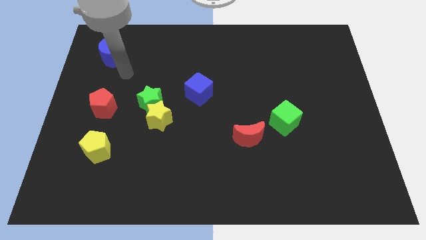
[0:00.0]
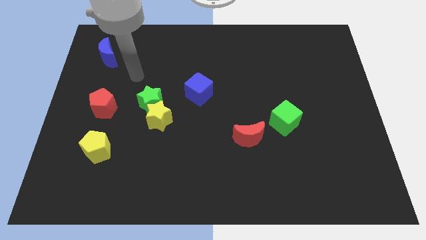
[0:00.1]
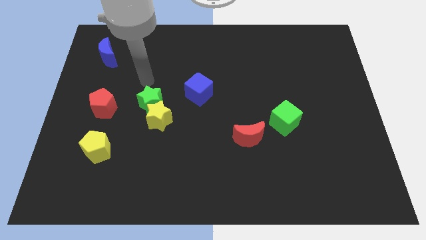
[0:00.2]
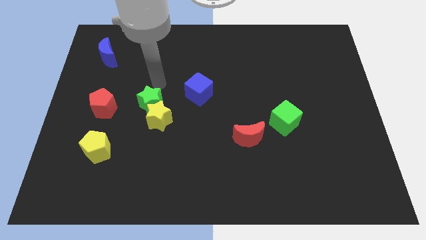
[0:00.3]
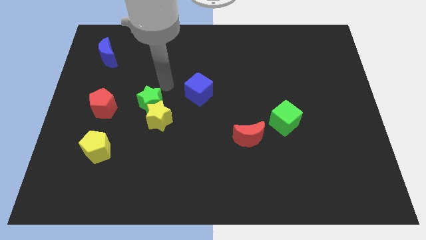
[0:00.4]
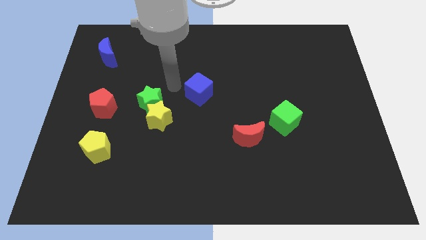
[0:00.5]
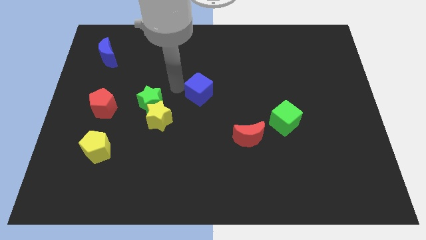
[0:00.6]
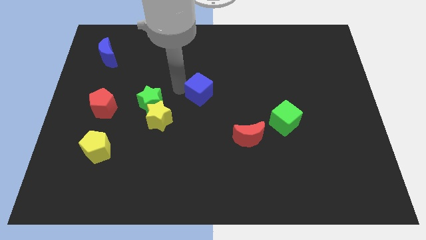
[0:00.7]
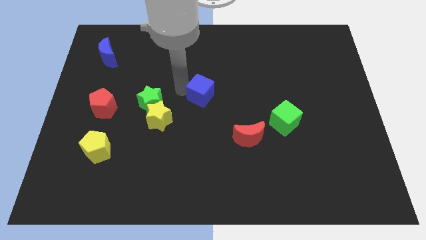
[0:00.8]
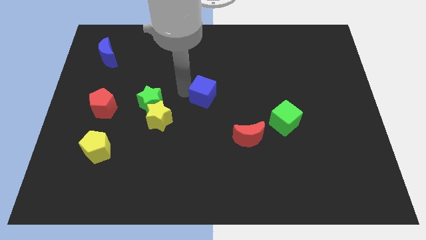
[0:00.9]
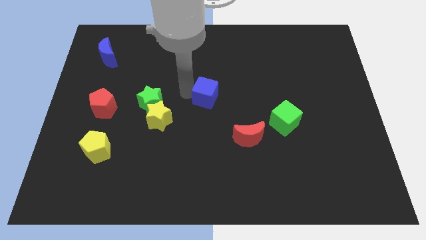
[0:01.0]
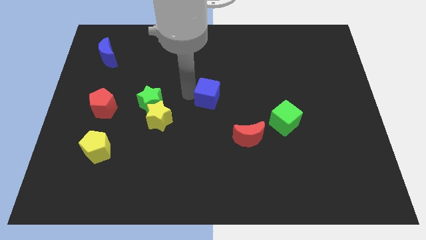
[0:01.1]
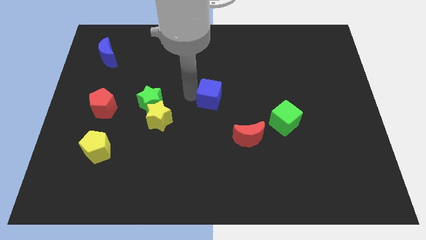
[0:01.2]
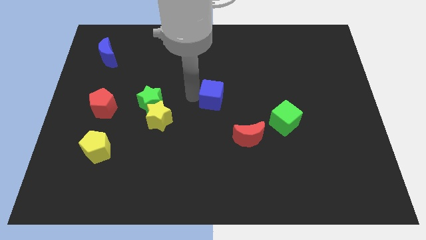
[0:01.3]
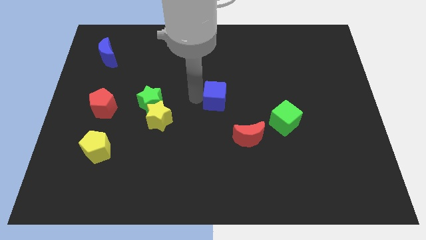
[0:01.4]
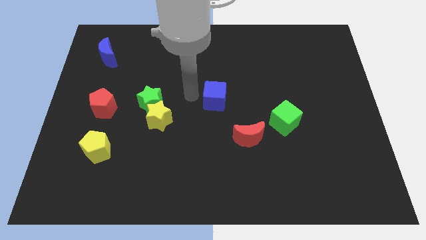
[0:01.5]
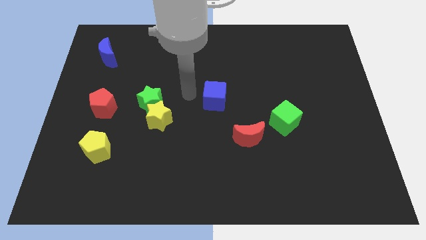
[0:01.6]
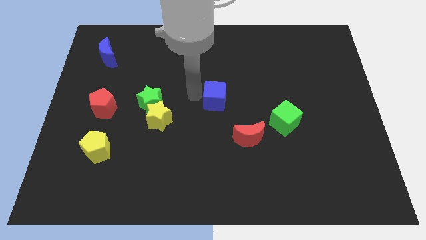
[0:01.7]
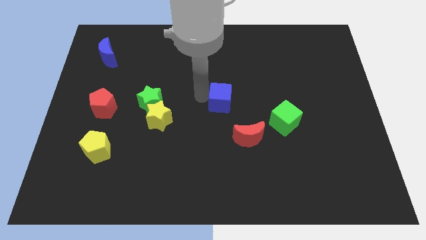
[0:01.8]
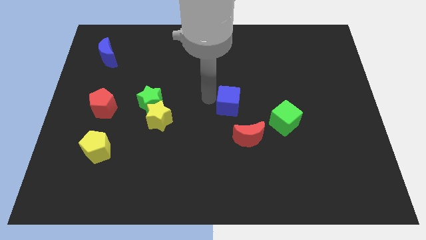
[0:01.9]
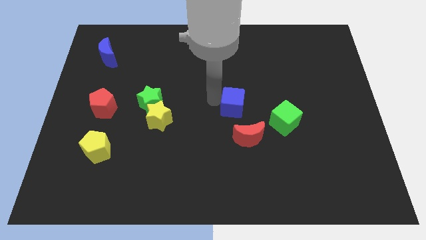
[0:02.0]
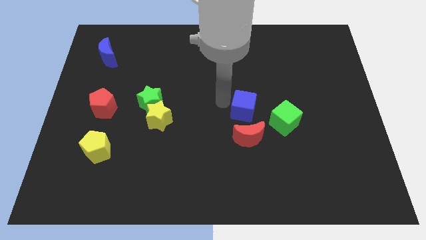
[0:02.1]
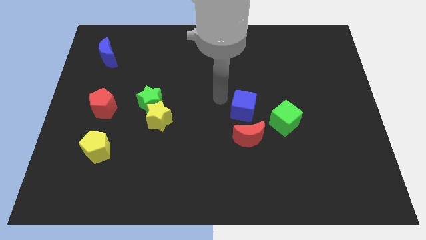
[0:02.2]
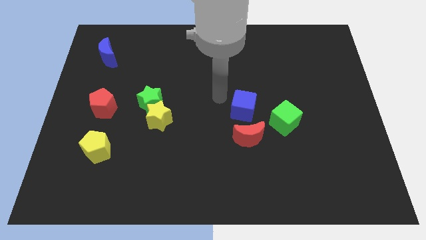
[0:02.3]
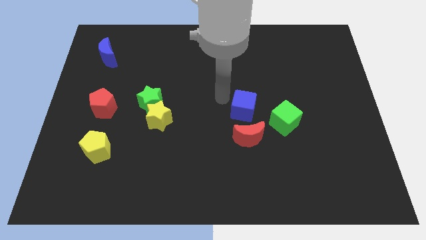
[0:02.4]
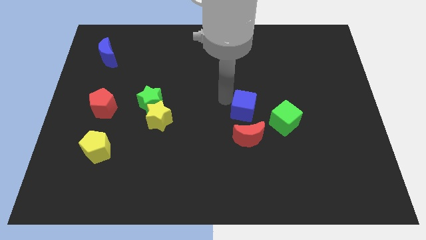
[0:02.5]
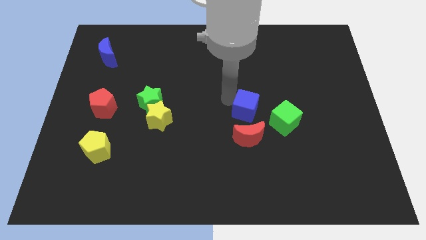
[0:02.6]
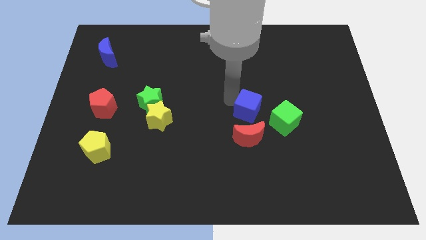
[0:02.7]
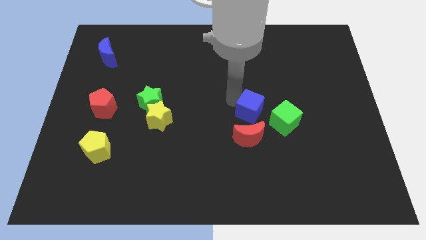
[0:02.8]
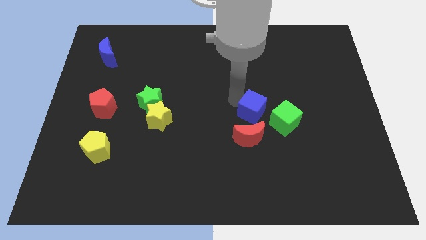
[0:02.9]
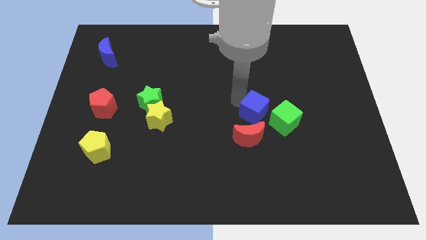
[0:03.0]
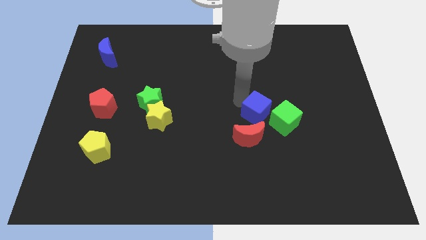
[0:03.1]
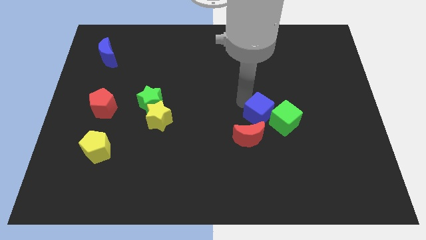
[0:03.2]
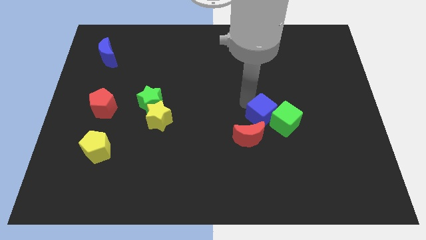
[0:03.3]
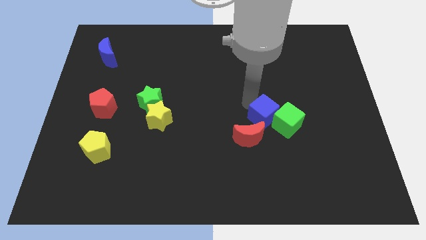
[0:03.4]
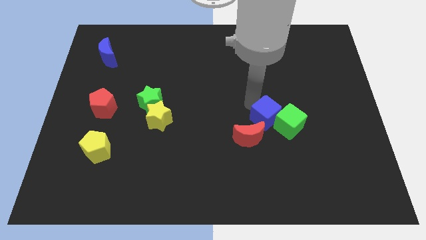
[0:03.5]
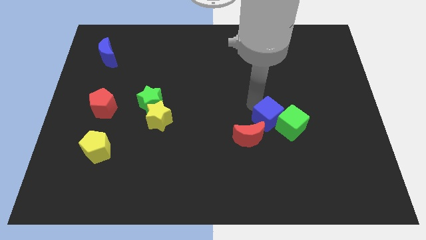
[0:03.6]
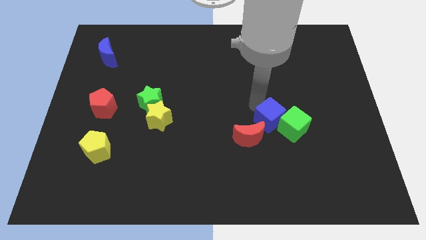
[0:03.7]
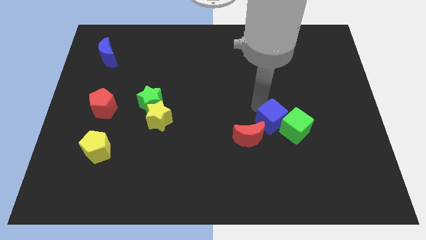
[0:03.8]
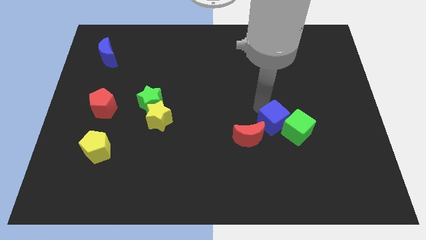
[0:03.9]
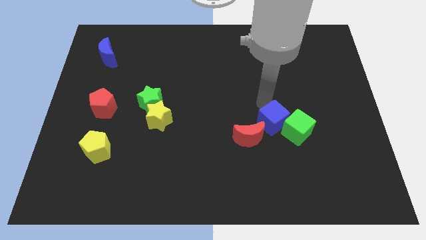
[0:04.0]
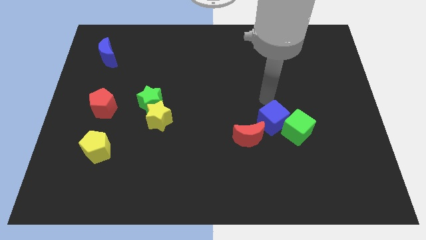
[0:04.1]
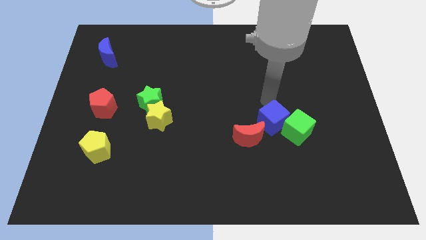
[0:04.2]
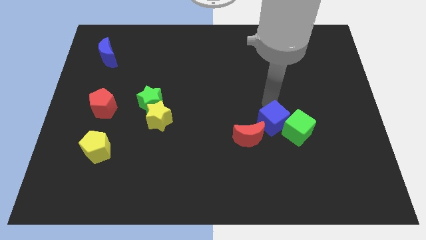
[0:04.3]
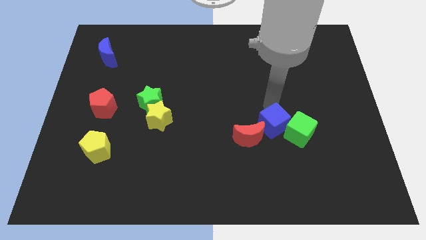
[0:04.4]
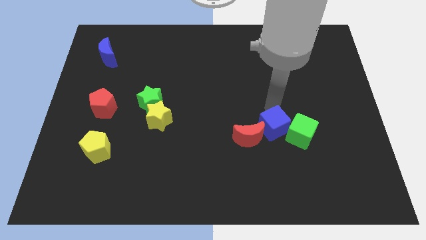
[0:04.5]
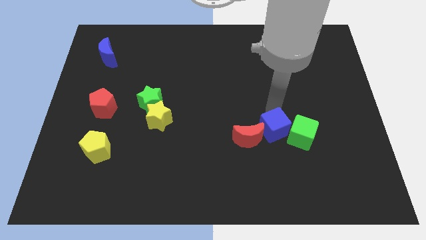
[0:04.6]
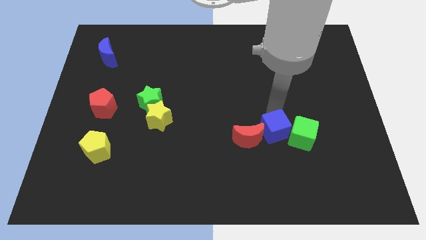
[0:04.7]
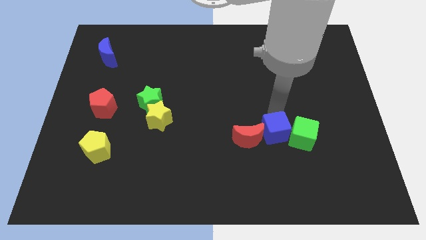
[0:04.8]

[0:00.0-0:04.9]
move the blue cube downwards and right diagonally

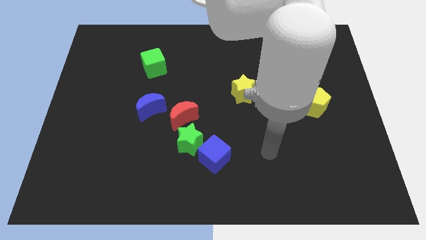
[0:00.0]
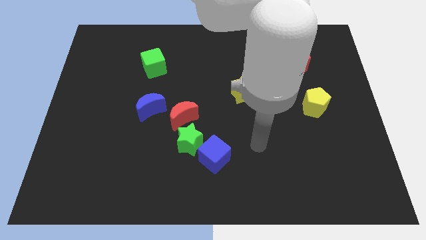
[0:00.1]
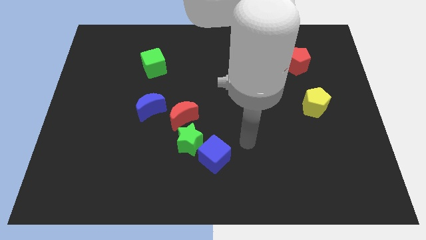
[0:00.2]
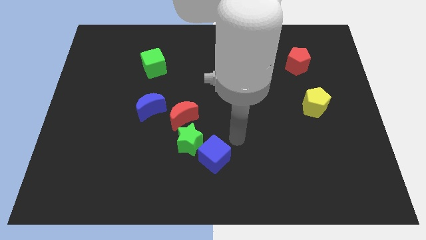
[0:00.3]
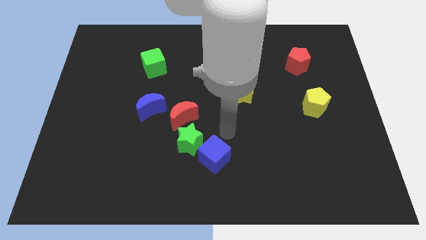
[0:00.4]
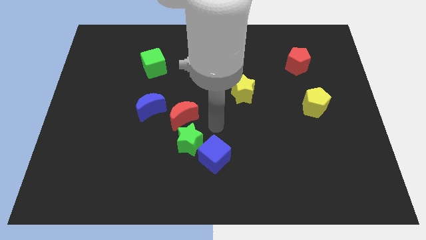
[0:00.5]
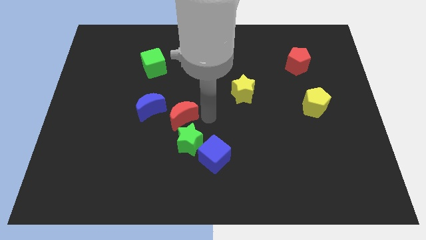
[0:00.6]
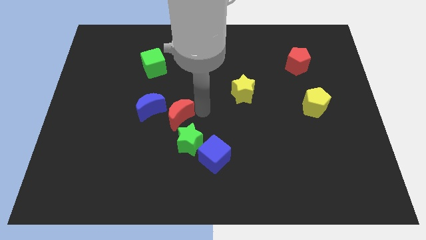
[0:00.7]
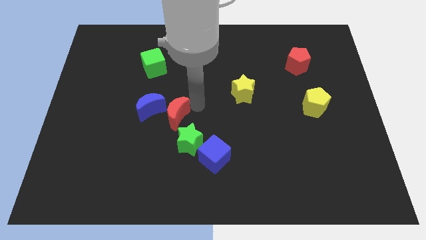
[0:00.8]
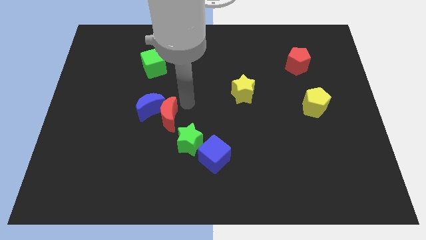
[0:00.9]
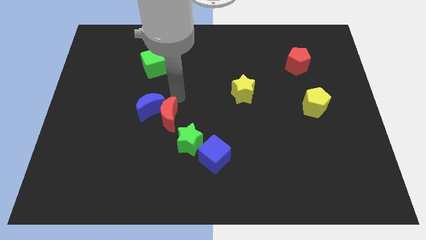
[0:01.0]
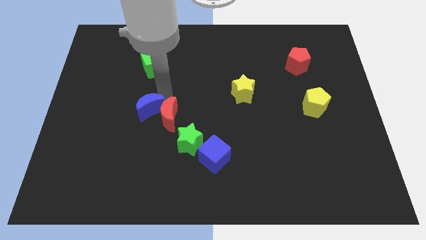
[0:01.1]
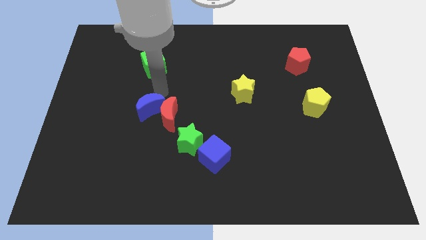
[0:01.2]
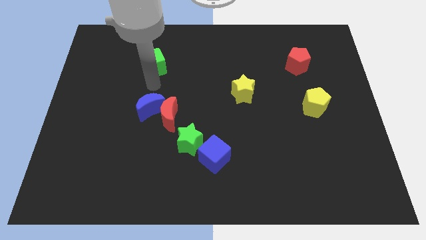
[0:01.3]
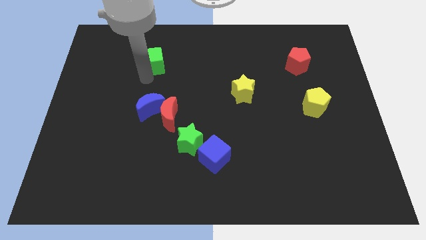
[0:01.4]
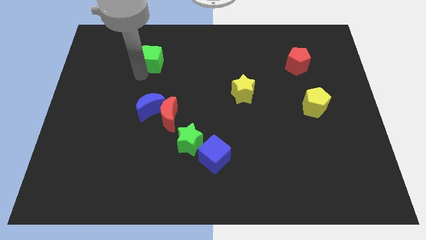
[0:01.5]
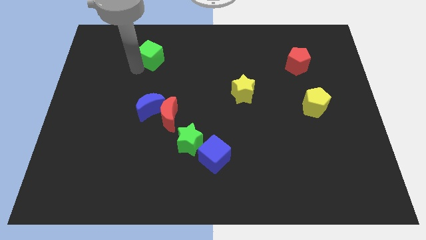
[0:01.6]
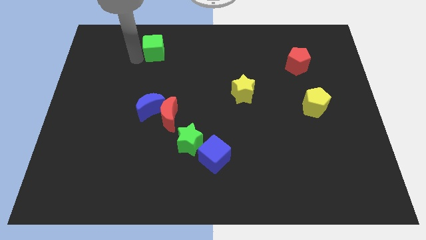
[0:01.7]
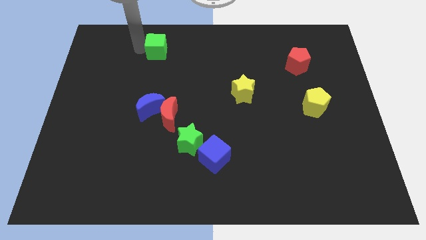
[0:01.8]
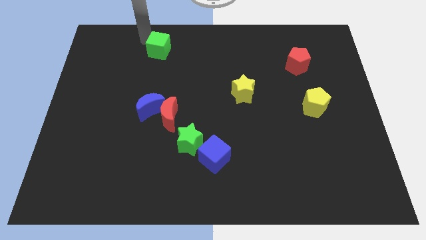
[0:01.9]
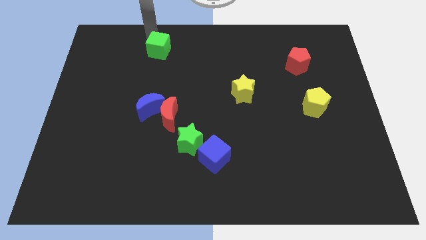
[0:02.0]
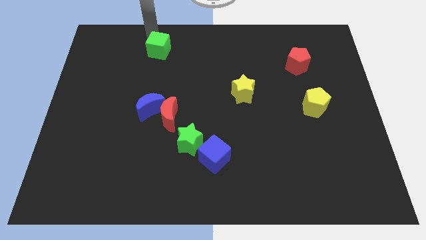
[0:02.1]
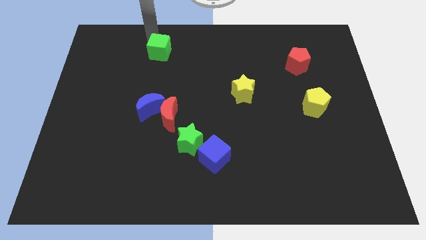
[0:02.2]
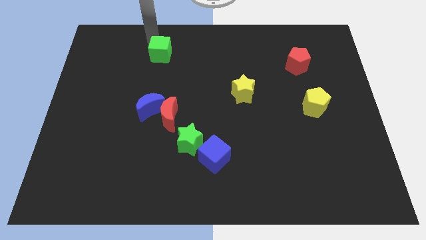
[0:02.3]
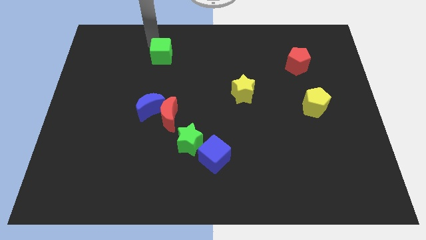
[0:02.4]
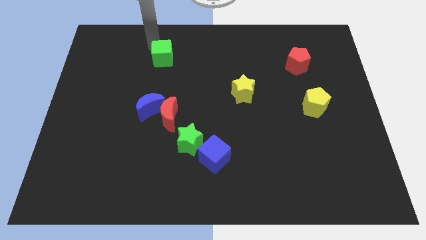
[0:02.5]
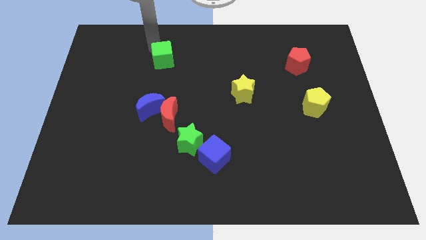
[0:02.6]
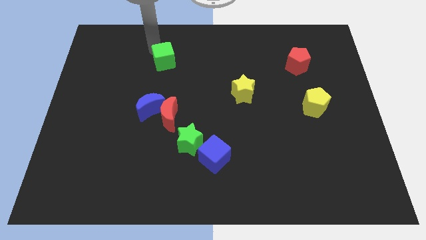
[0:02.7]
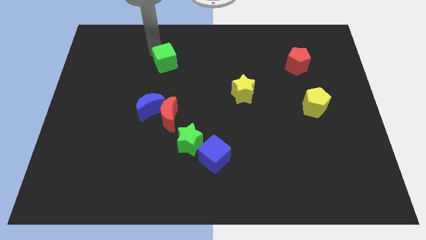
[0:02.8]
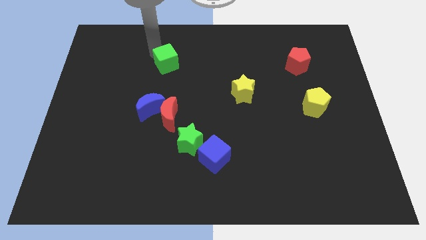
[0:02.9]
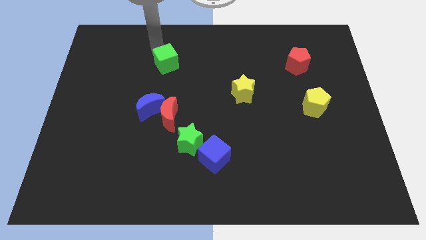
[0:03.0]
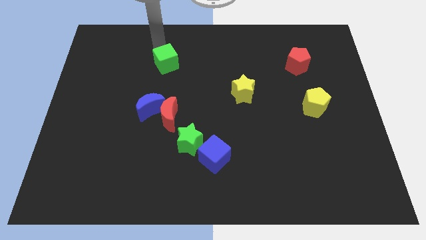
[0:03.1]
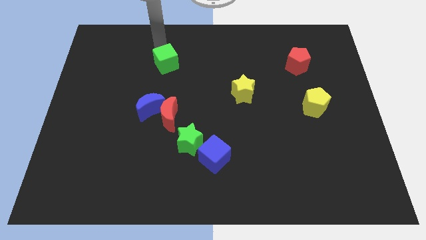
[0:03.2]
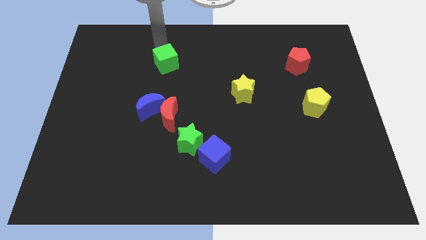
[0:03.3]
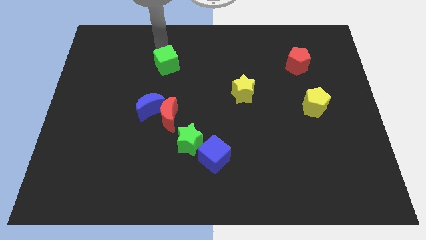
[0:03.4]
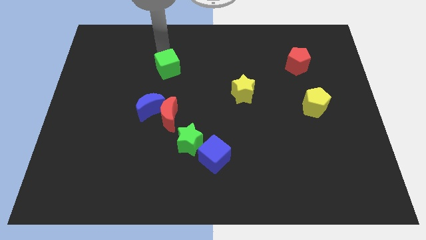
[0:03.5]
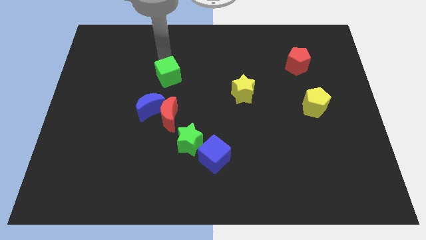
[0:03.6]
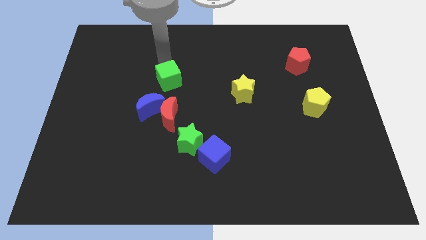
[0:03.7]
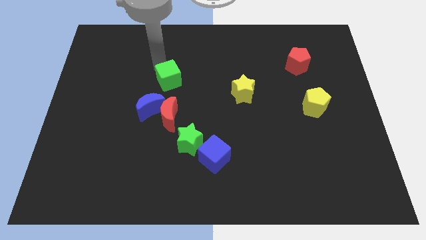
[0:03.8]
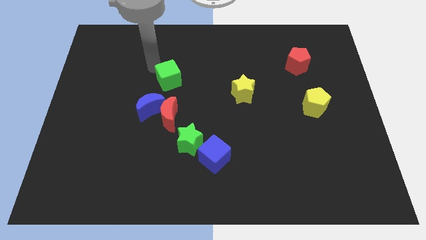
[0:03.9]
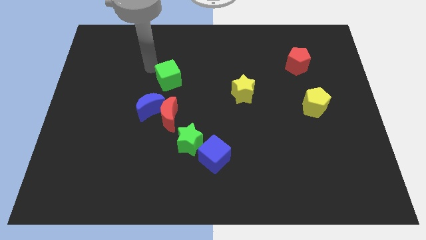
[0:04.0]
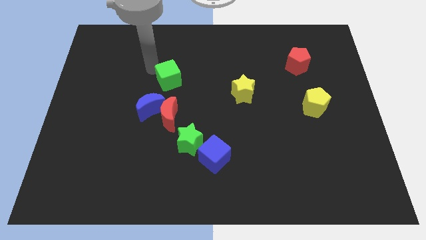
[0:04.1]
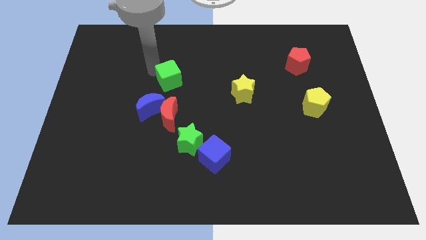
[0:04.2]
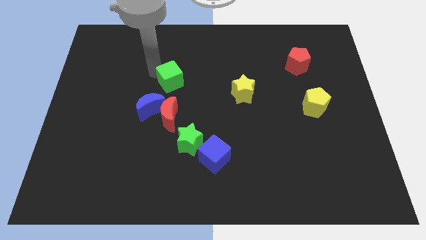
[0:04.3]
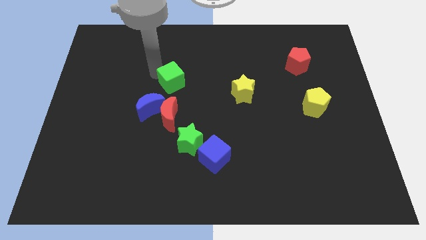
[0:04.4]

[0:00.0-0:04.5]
push the green cube down and right diagonally slightly
